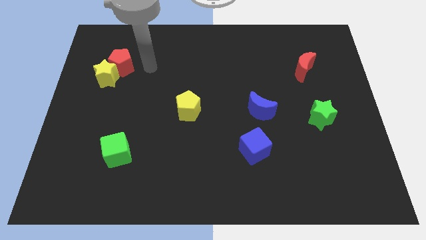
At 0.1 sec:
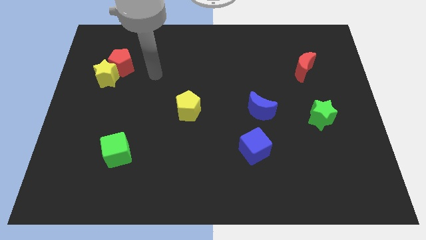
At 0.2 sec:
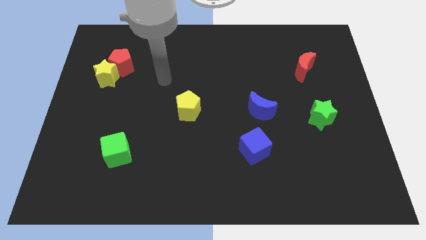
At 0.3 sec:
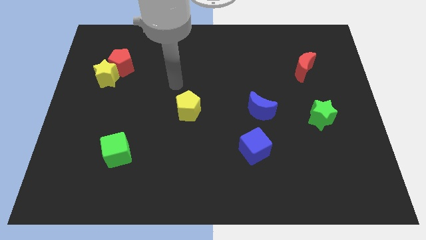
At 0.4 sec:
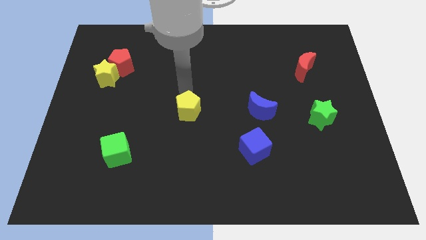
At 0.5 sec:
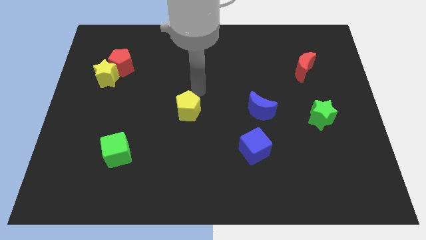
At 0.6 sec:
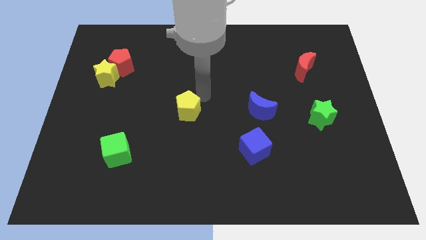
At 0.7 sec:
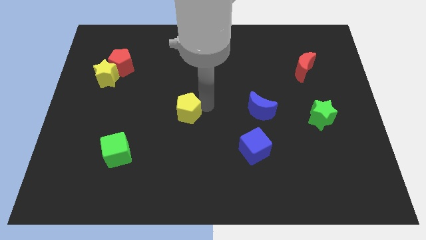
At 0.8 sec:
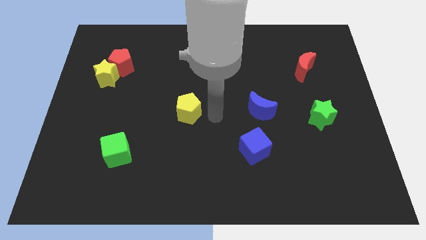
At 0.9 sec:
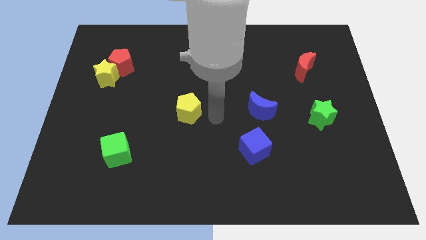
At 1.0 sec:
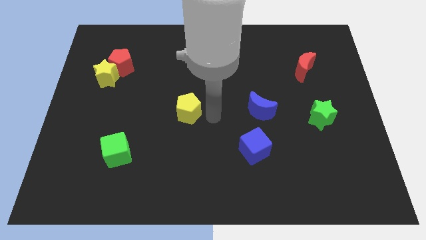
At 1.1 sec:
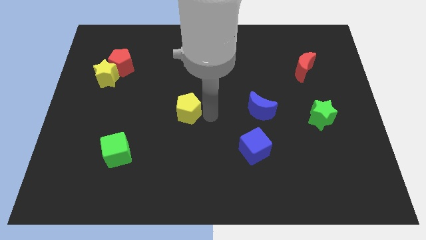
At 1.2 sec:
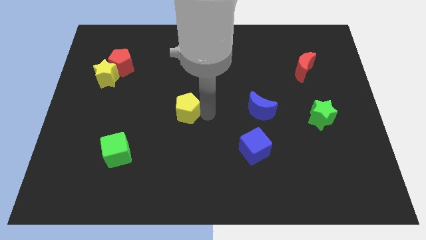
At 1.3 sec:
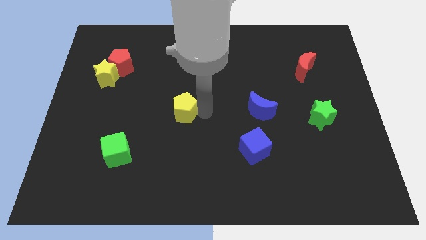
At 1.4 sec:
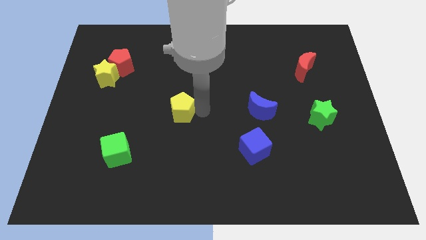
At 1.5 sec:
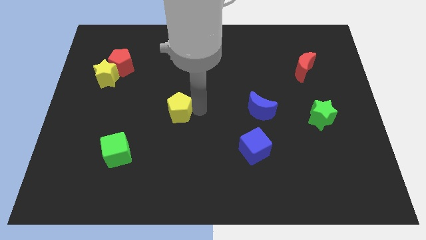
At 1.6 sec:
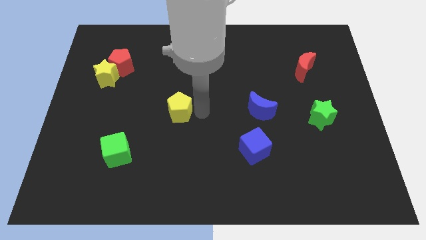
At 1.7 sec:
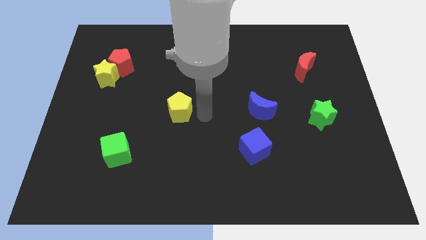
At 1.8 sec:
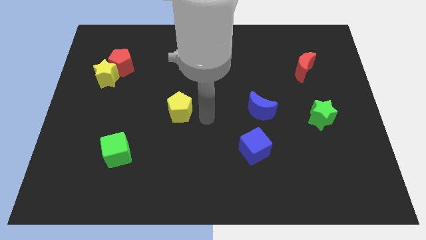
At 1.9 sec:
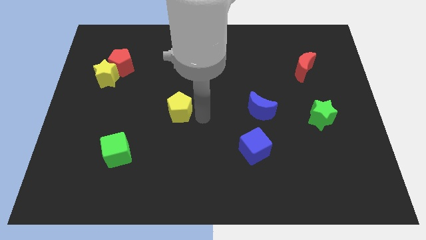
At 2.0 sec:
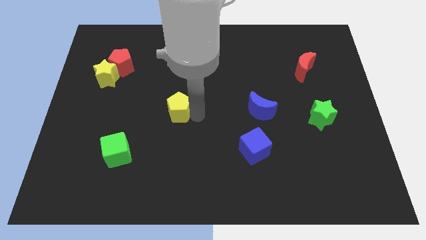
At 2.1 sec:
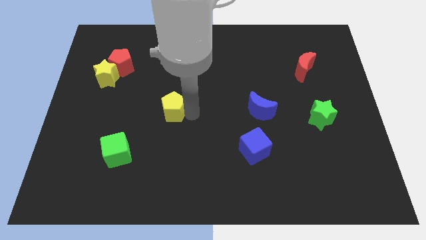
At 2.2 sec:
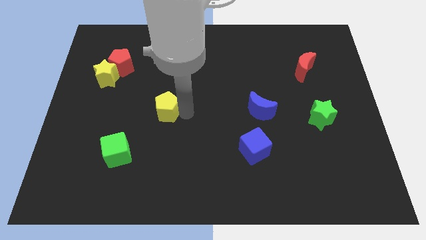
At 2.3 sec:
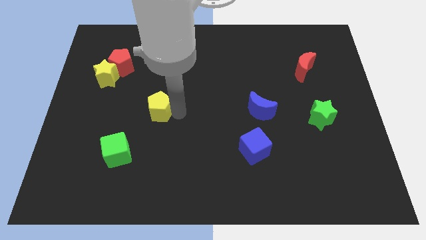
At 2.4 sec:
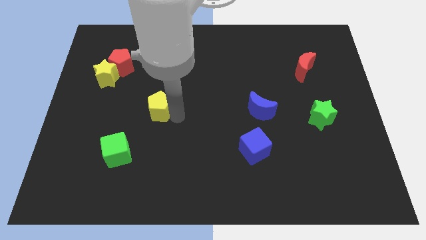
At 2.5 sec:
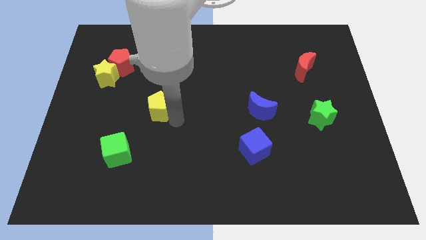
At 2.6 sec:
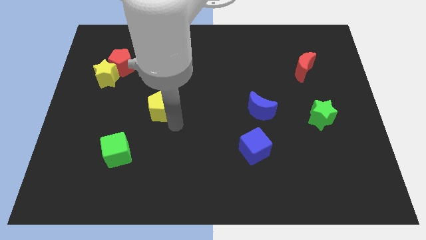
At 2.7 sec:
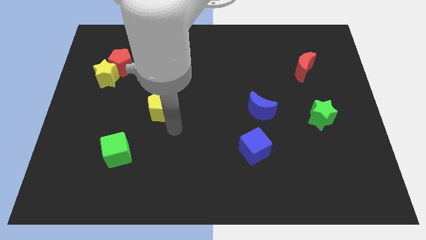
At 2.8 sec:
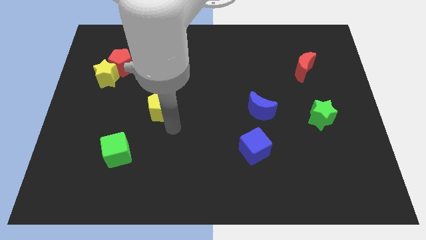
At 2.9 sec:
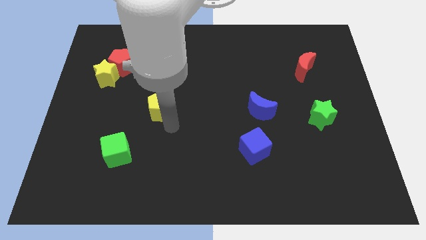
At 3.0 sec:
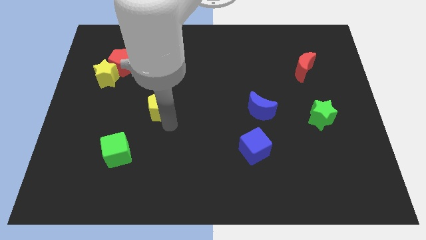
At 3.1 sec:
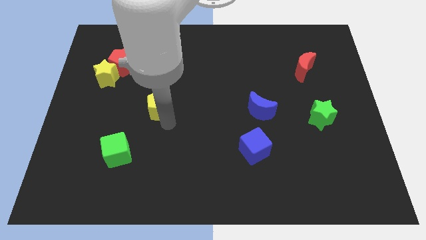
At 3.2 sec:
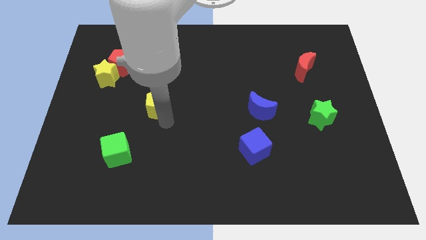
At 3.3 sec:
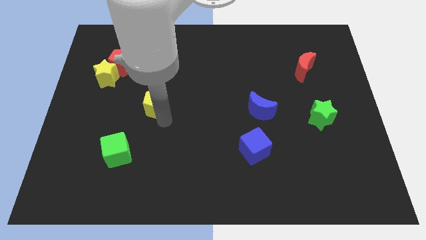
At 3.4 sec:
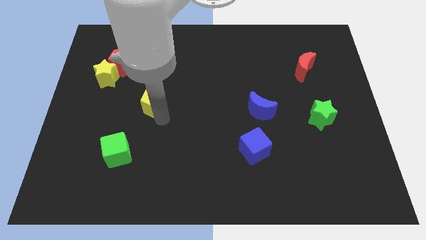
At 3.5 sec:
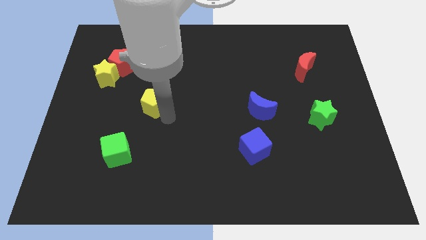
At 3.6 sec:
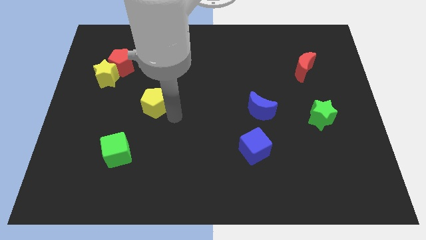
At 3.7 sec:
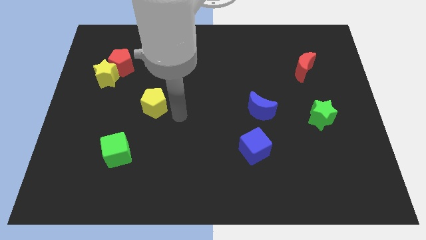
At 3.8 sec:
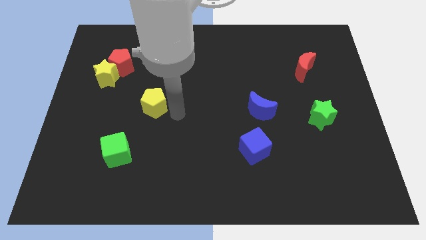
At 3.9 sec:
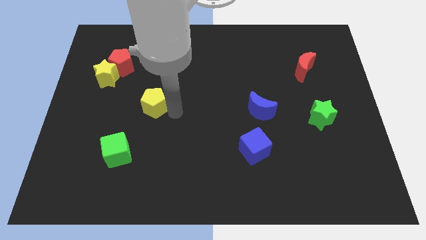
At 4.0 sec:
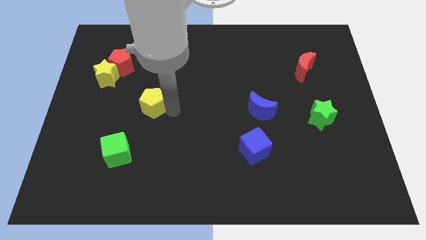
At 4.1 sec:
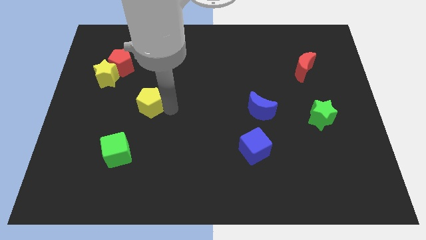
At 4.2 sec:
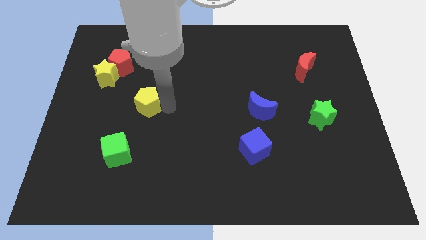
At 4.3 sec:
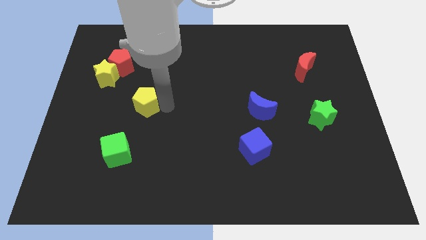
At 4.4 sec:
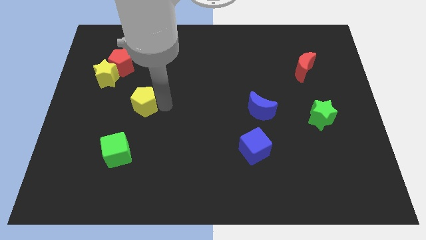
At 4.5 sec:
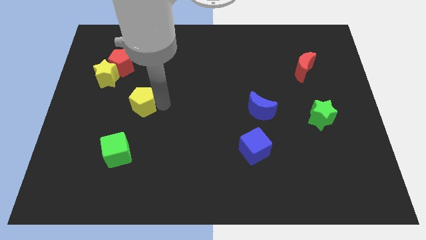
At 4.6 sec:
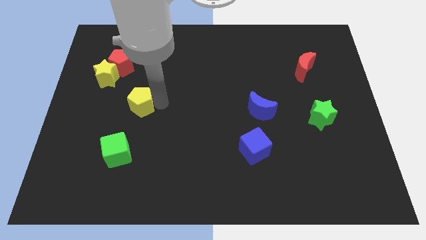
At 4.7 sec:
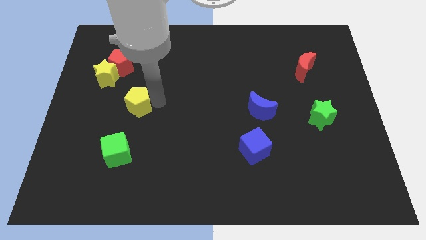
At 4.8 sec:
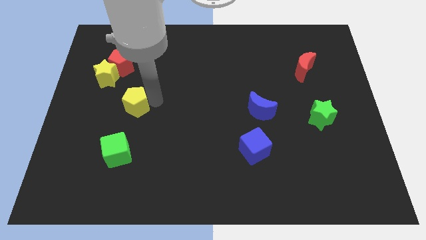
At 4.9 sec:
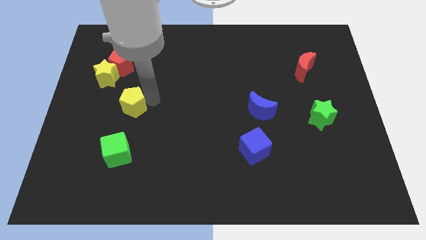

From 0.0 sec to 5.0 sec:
push the yellow pentagon to the bottom of the red pentagon

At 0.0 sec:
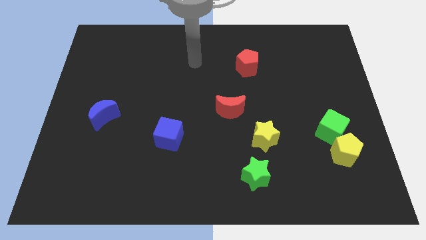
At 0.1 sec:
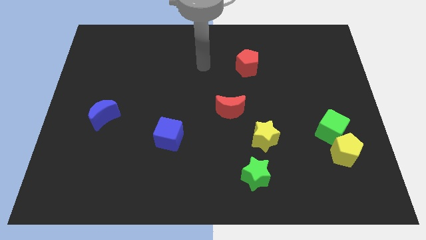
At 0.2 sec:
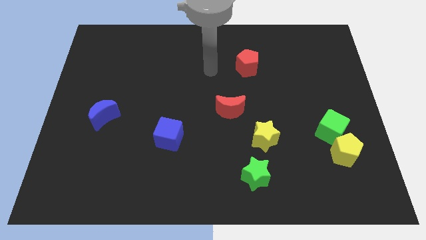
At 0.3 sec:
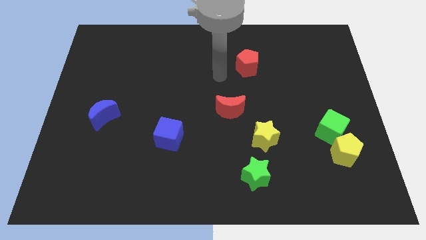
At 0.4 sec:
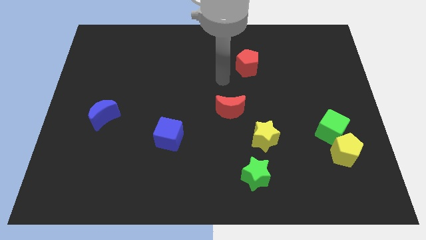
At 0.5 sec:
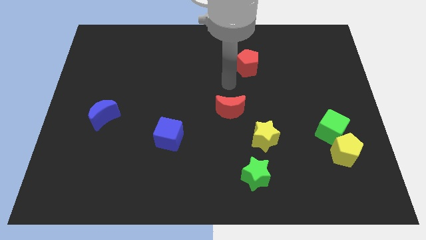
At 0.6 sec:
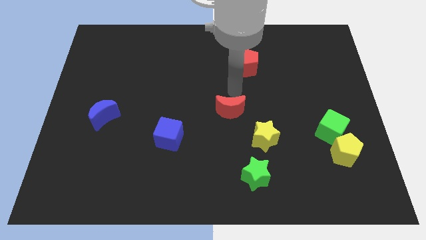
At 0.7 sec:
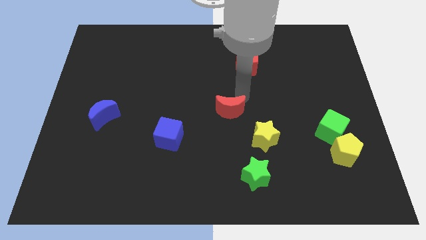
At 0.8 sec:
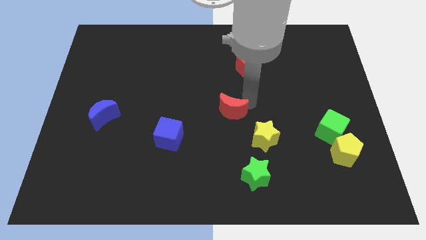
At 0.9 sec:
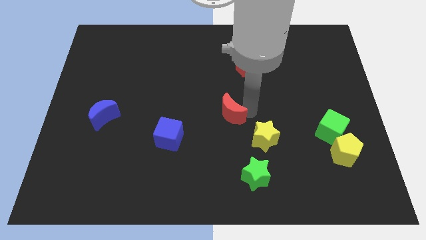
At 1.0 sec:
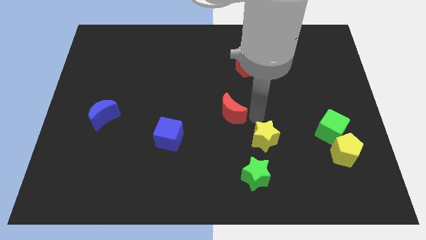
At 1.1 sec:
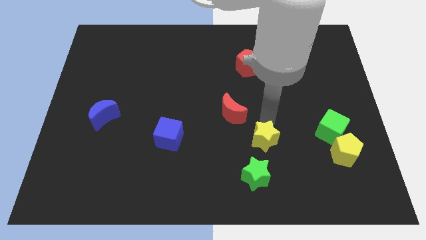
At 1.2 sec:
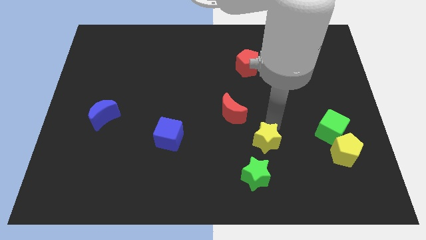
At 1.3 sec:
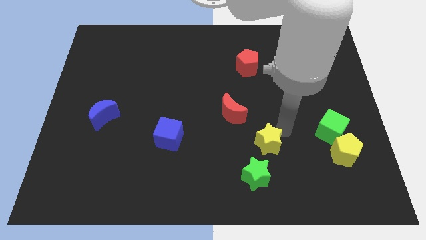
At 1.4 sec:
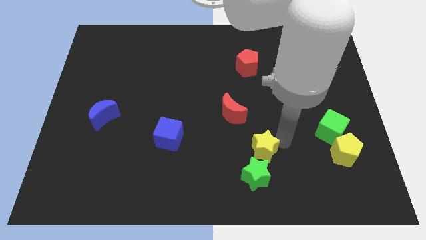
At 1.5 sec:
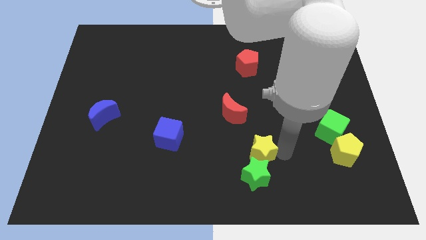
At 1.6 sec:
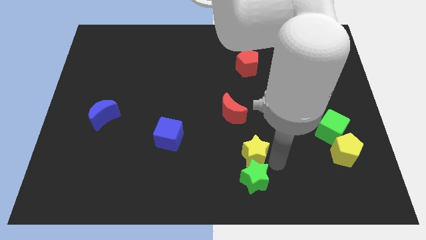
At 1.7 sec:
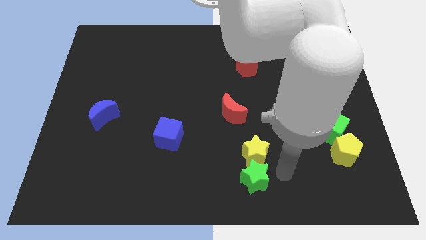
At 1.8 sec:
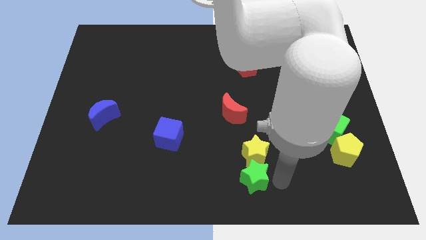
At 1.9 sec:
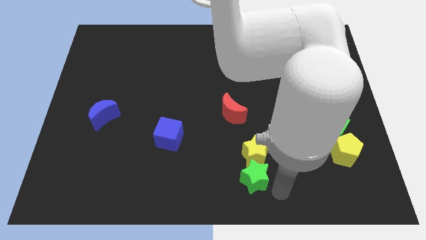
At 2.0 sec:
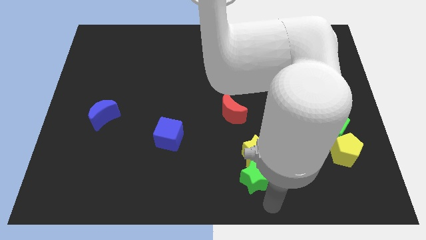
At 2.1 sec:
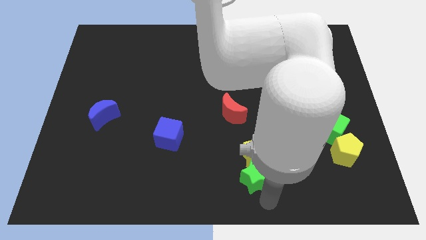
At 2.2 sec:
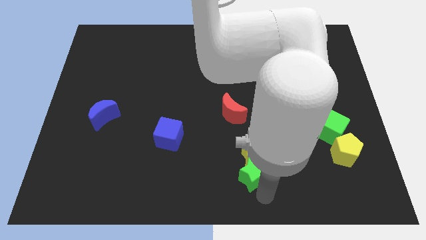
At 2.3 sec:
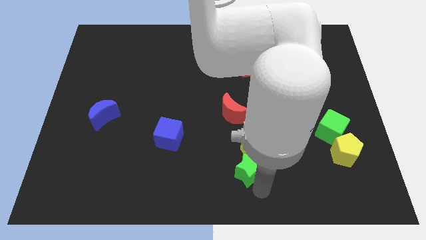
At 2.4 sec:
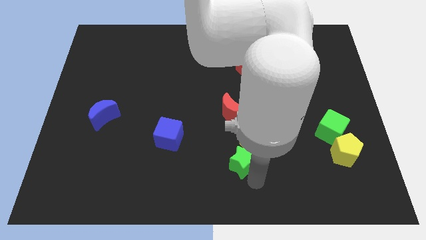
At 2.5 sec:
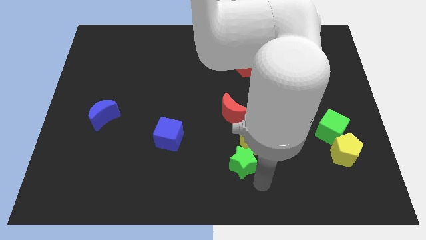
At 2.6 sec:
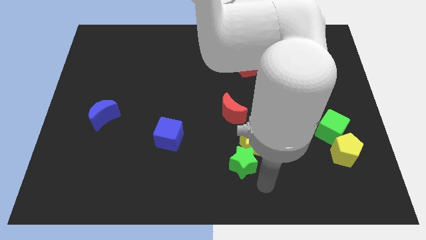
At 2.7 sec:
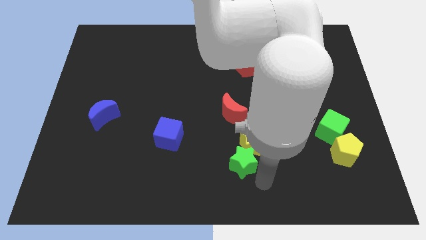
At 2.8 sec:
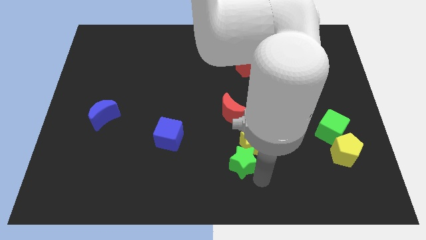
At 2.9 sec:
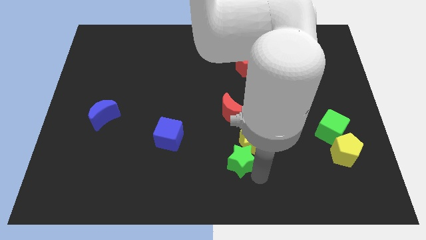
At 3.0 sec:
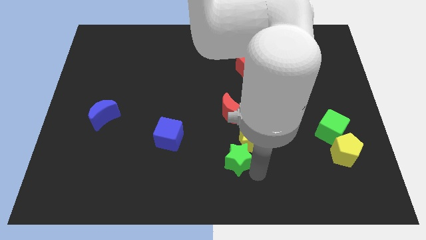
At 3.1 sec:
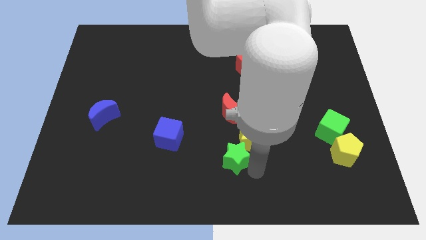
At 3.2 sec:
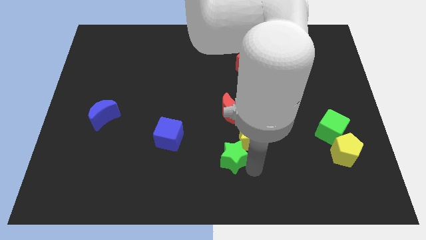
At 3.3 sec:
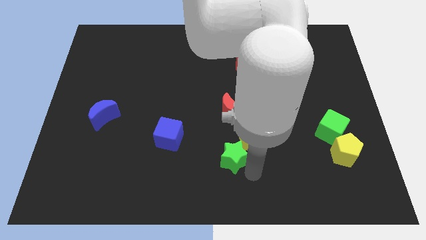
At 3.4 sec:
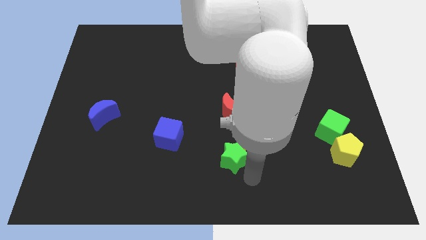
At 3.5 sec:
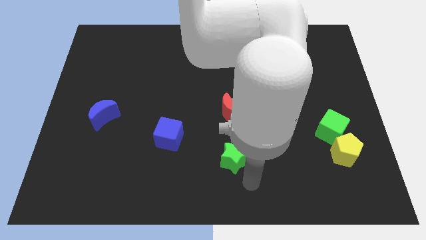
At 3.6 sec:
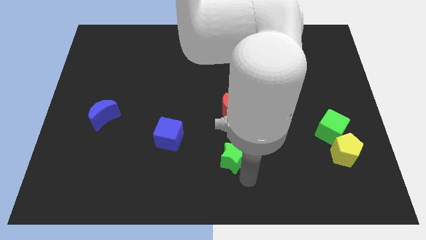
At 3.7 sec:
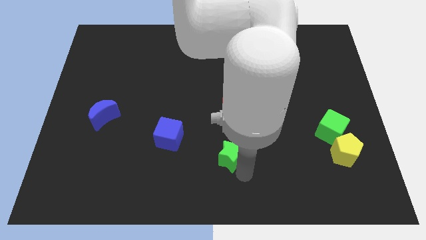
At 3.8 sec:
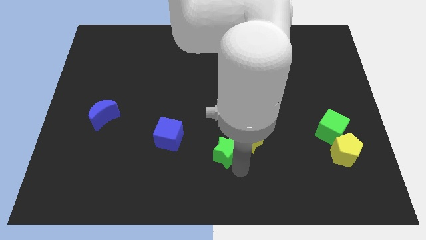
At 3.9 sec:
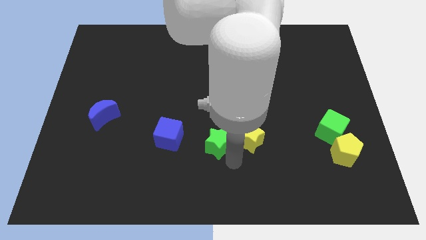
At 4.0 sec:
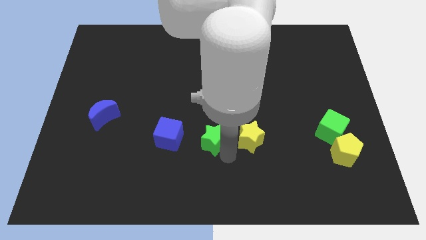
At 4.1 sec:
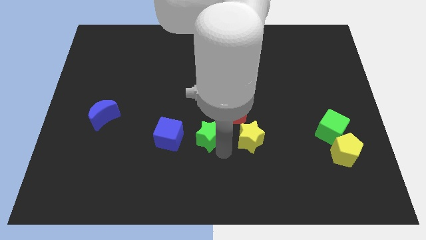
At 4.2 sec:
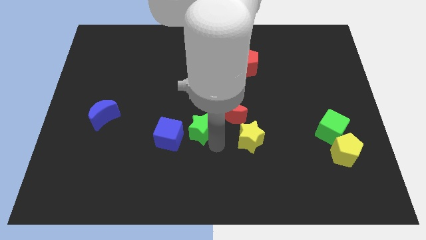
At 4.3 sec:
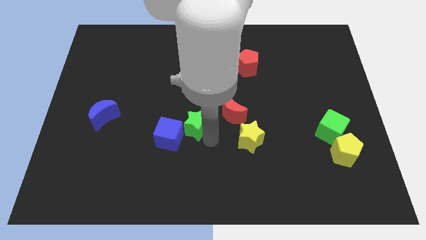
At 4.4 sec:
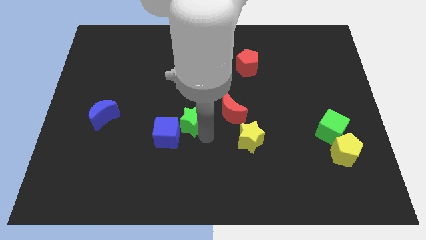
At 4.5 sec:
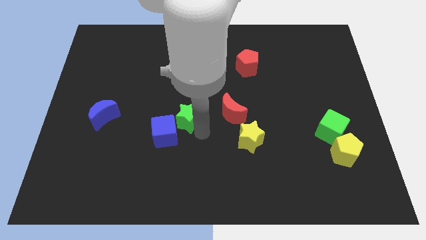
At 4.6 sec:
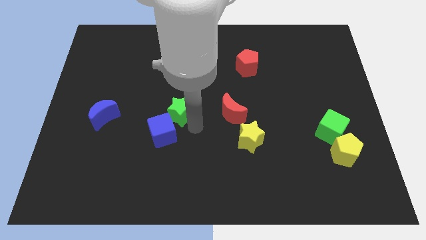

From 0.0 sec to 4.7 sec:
put the green star above the blue cube
